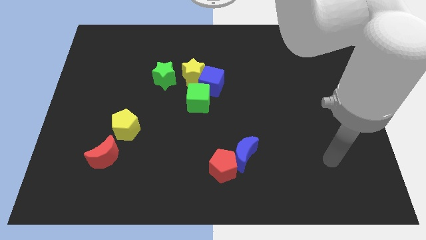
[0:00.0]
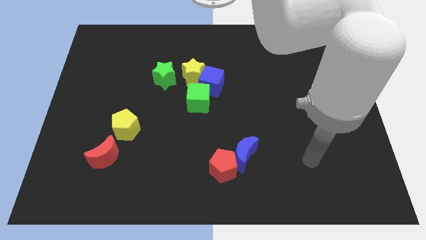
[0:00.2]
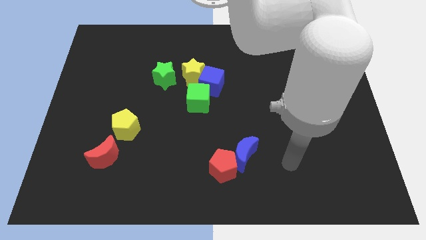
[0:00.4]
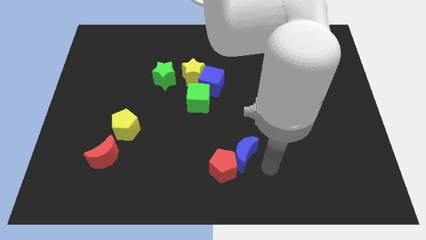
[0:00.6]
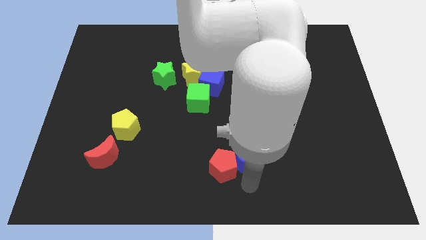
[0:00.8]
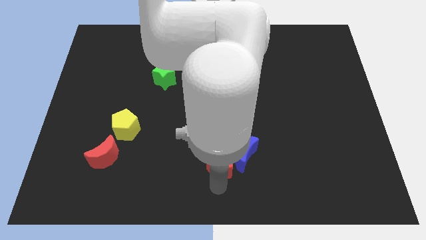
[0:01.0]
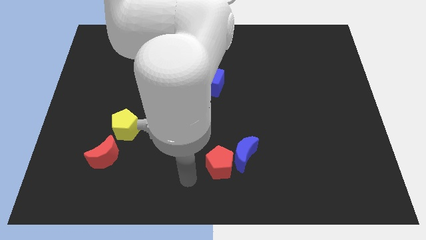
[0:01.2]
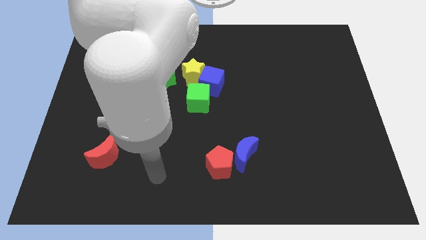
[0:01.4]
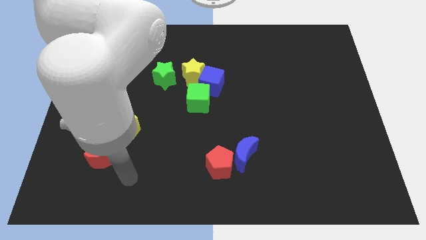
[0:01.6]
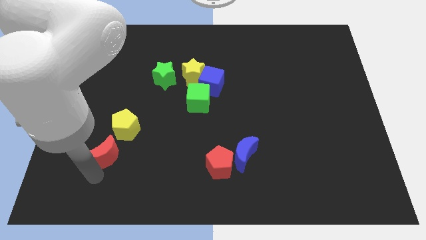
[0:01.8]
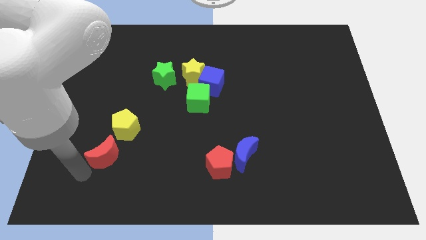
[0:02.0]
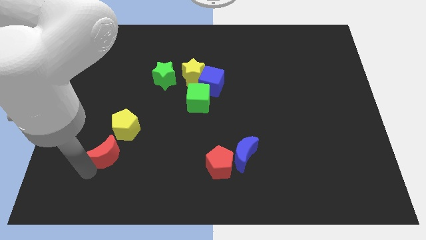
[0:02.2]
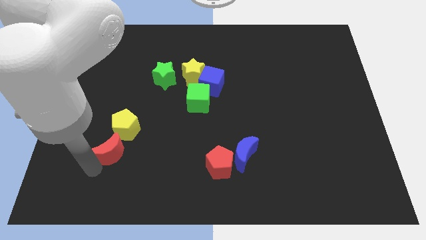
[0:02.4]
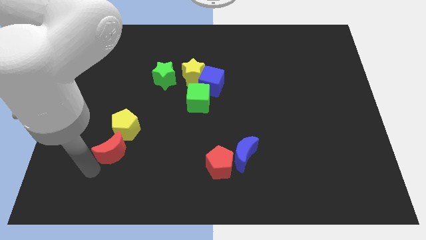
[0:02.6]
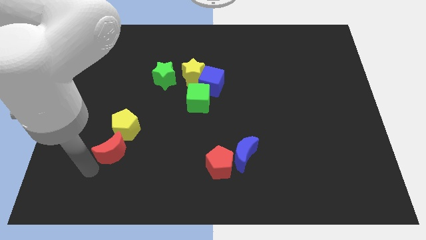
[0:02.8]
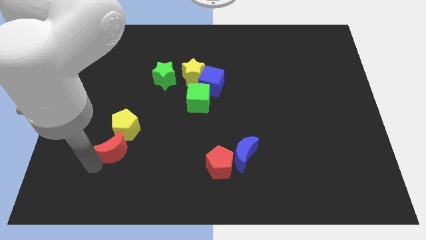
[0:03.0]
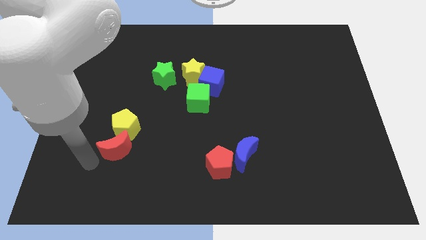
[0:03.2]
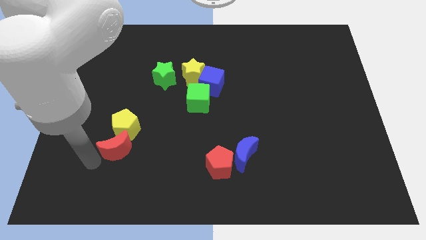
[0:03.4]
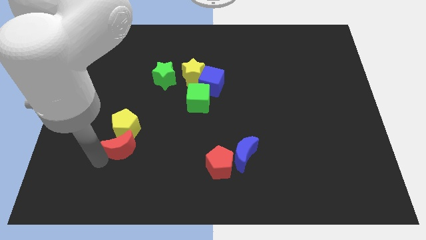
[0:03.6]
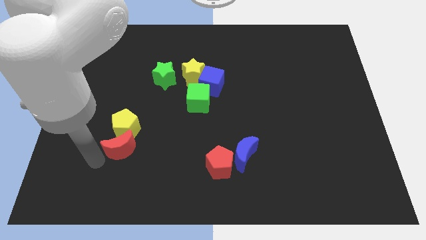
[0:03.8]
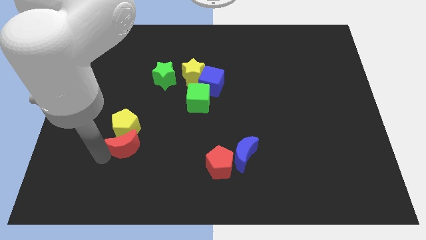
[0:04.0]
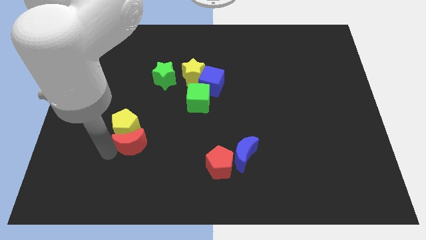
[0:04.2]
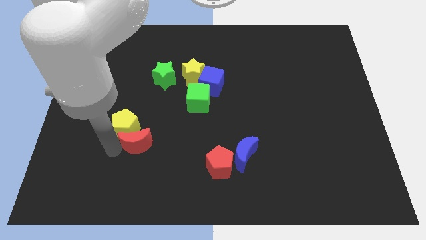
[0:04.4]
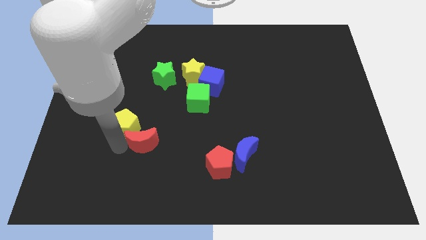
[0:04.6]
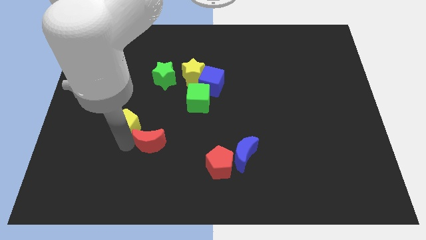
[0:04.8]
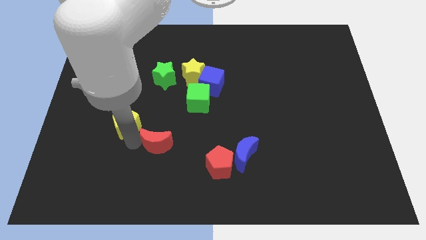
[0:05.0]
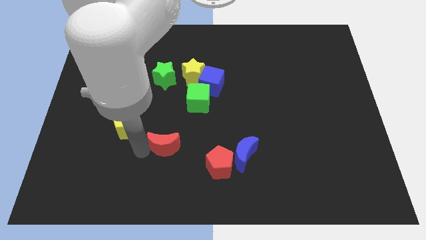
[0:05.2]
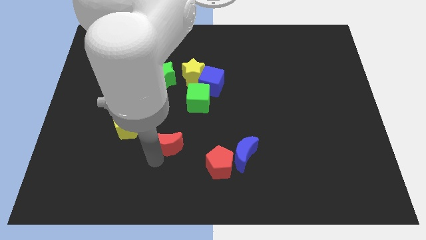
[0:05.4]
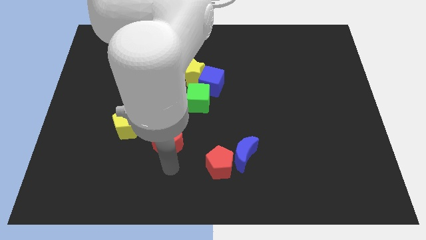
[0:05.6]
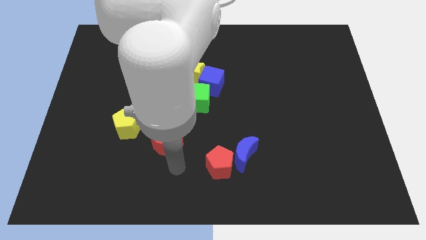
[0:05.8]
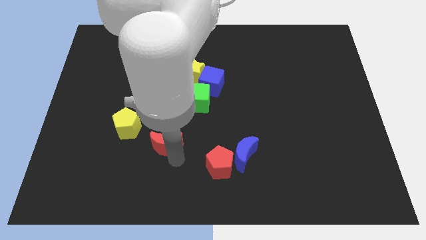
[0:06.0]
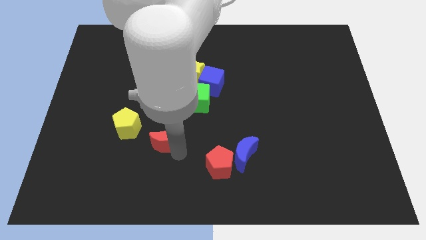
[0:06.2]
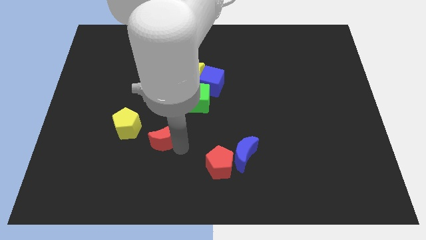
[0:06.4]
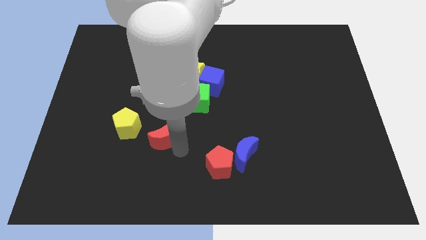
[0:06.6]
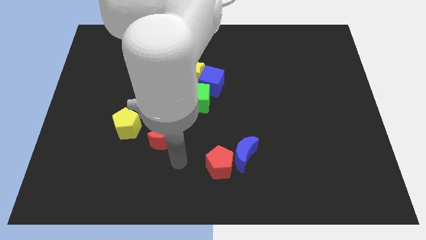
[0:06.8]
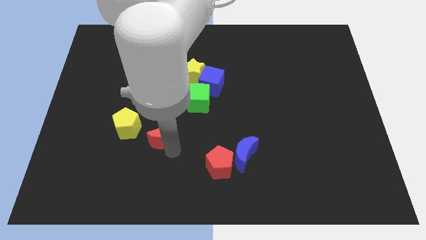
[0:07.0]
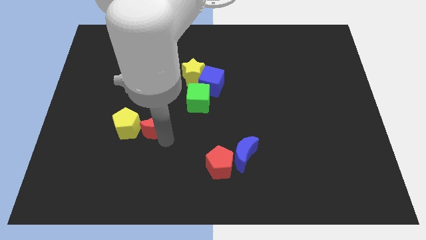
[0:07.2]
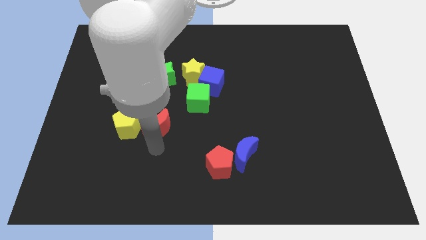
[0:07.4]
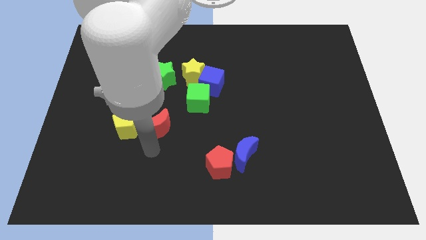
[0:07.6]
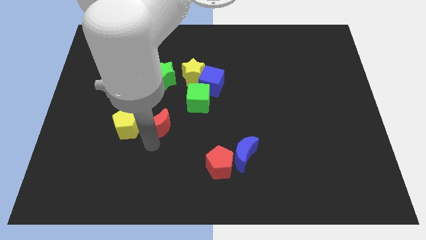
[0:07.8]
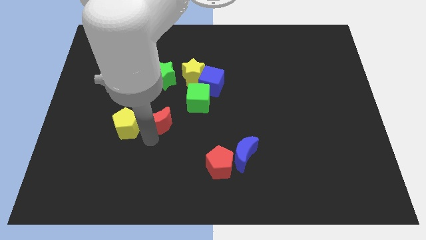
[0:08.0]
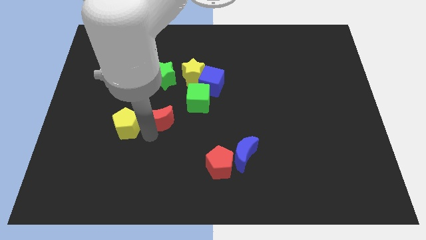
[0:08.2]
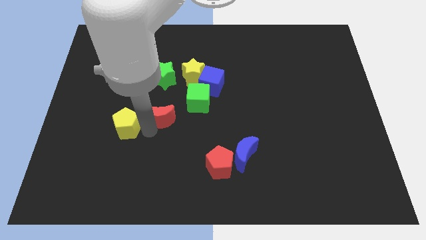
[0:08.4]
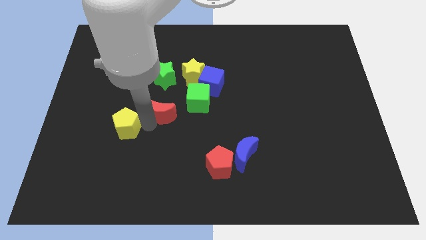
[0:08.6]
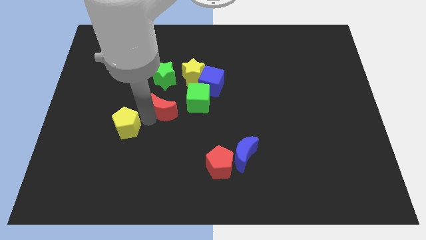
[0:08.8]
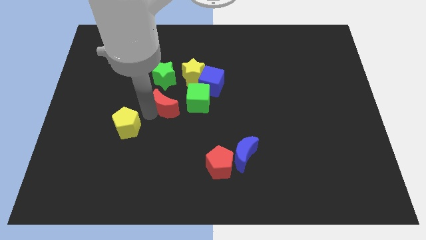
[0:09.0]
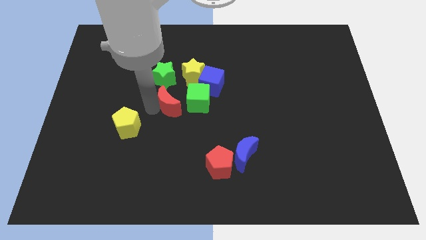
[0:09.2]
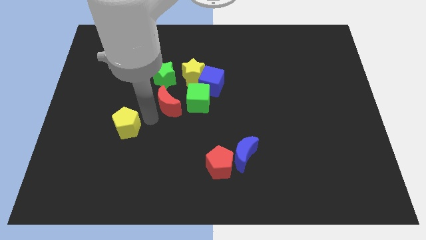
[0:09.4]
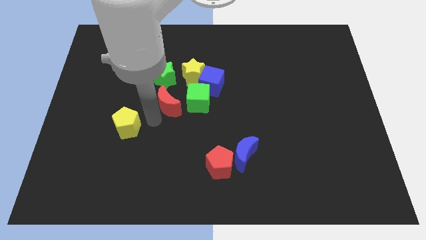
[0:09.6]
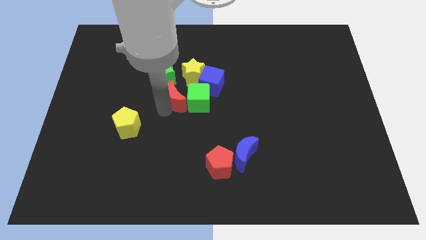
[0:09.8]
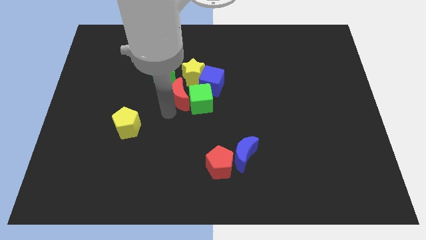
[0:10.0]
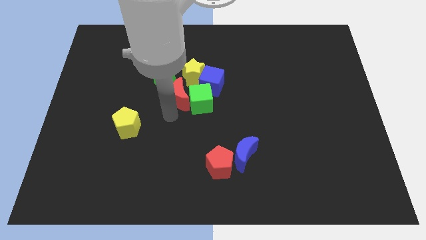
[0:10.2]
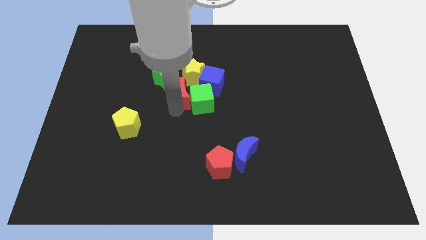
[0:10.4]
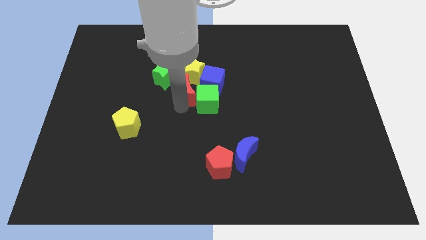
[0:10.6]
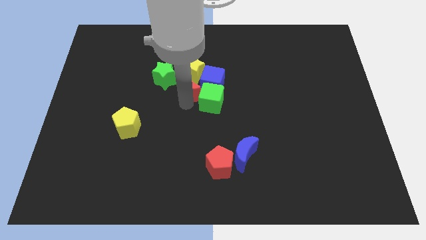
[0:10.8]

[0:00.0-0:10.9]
slide the red moon next to the yellow star

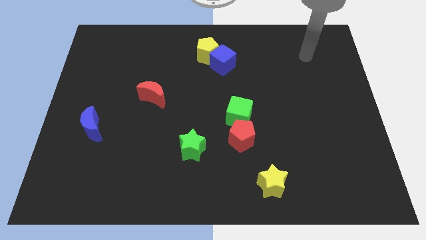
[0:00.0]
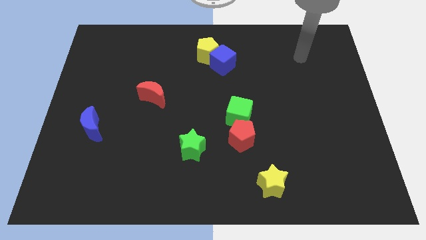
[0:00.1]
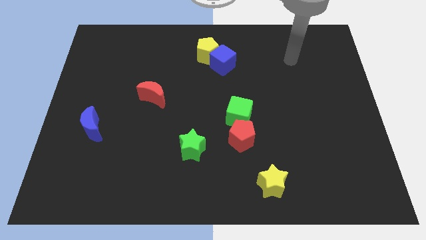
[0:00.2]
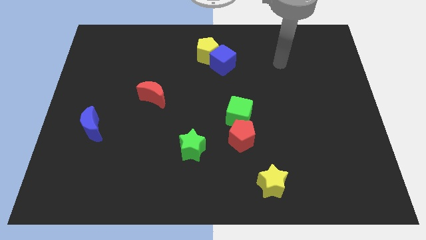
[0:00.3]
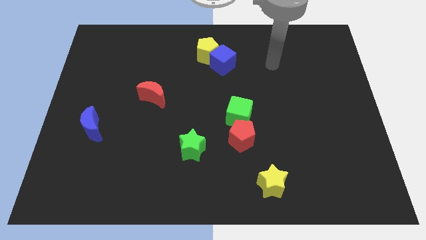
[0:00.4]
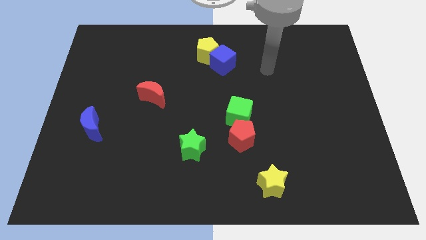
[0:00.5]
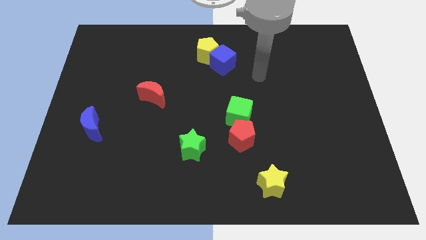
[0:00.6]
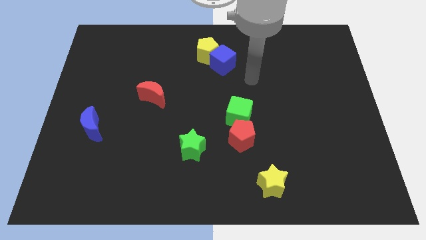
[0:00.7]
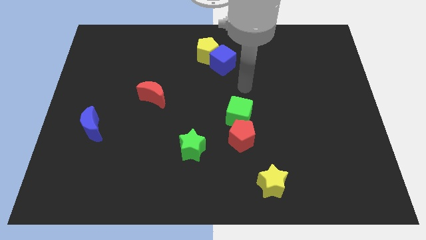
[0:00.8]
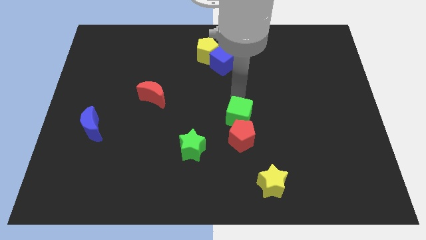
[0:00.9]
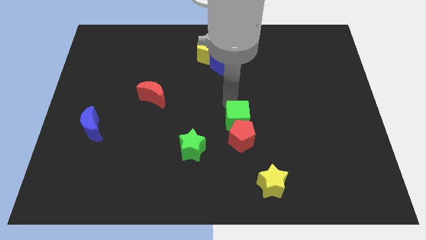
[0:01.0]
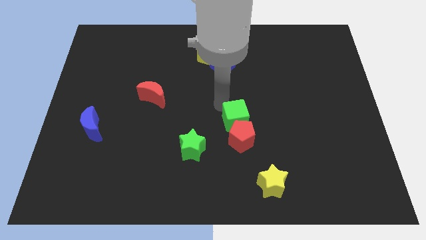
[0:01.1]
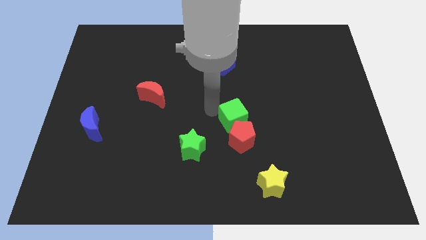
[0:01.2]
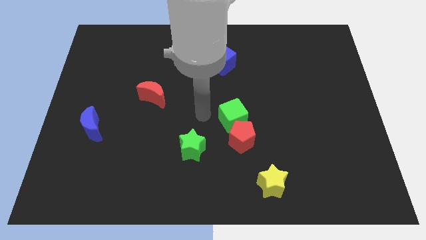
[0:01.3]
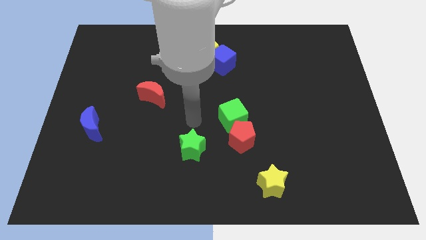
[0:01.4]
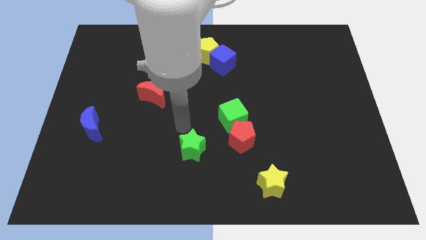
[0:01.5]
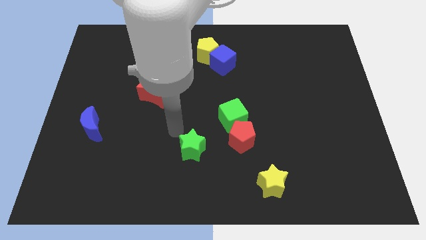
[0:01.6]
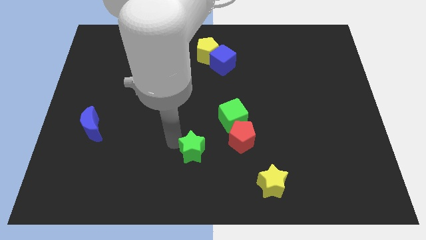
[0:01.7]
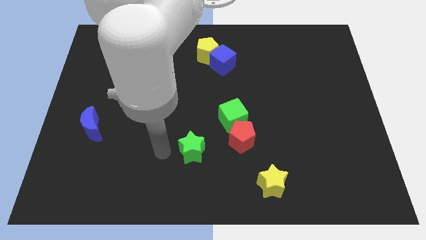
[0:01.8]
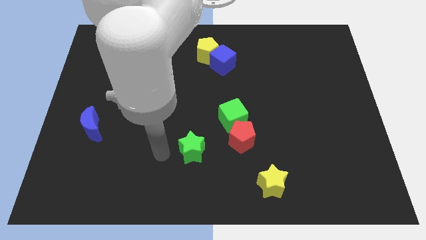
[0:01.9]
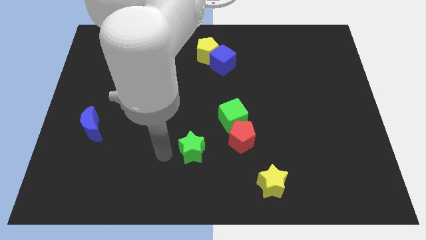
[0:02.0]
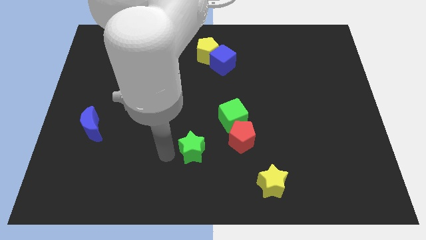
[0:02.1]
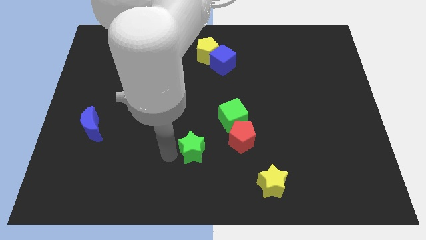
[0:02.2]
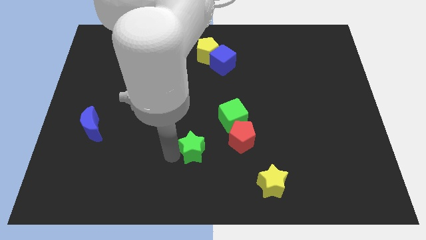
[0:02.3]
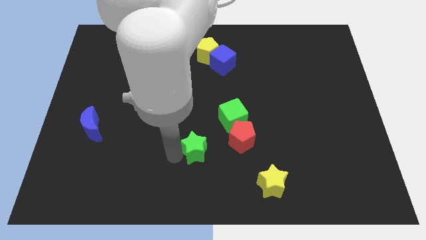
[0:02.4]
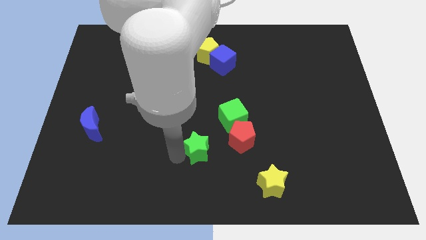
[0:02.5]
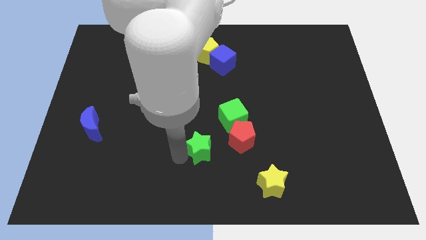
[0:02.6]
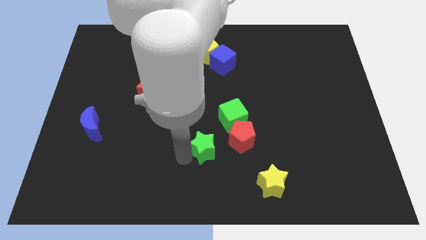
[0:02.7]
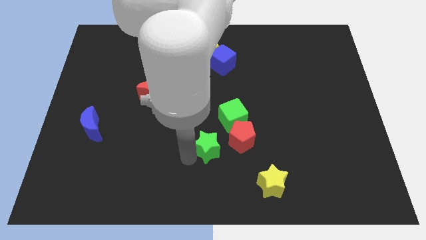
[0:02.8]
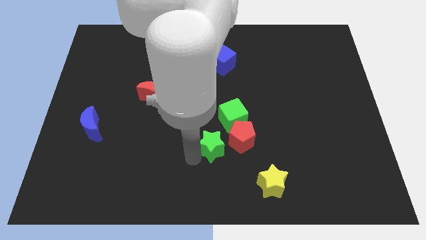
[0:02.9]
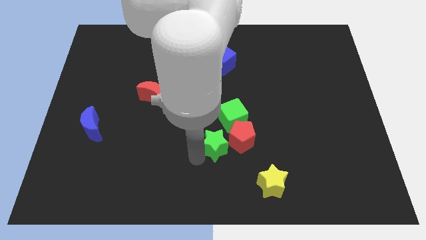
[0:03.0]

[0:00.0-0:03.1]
push the green star towards the red pentagon
